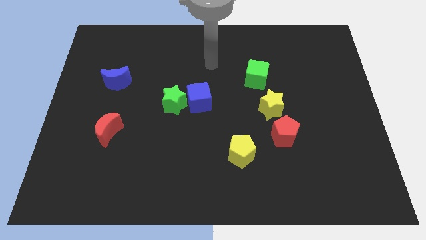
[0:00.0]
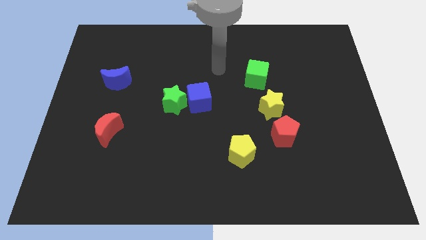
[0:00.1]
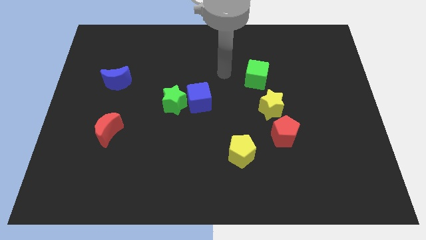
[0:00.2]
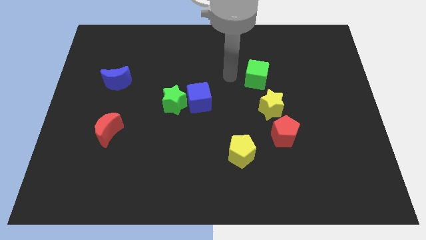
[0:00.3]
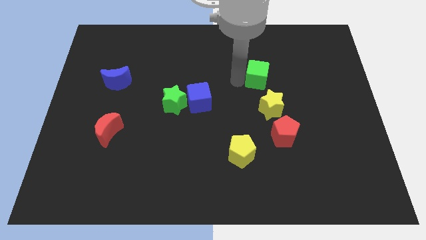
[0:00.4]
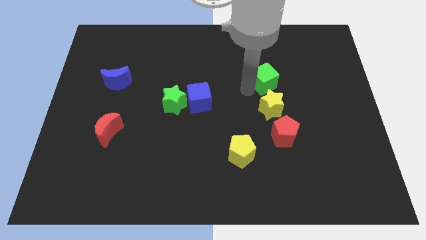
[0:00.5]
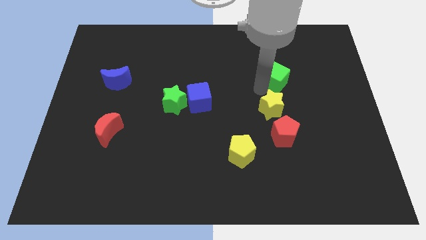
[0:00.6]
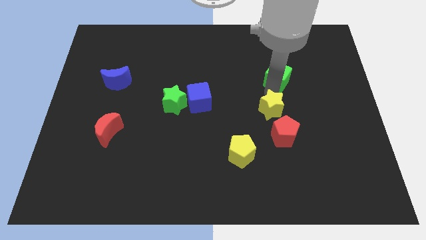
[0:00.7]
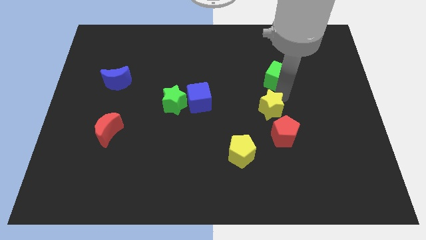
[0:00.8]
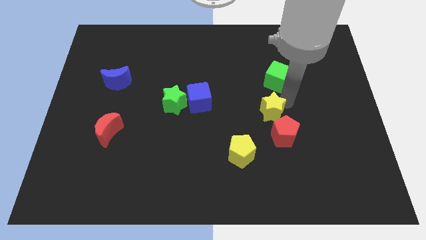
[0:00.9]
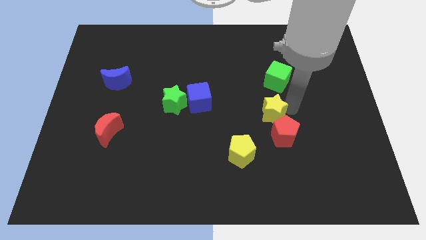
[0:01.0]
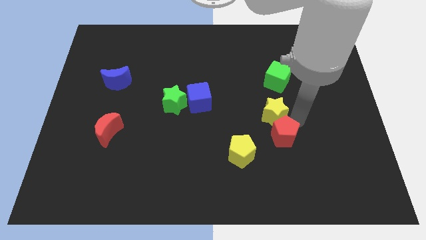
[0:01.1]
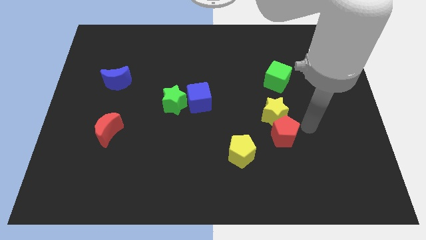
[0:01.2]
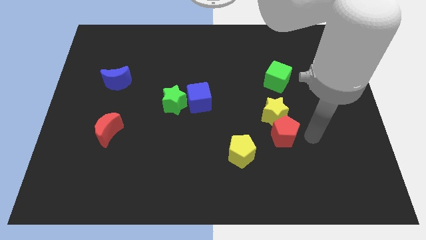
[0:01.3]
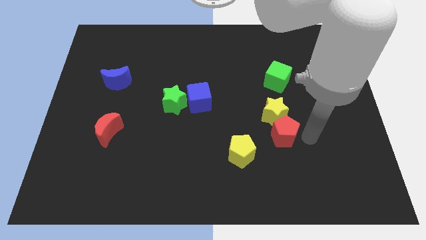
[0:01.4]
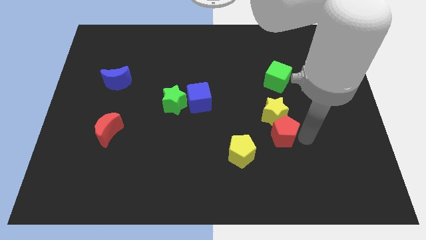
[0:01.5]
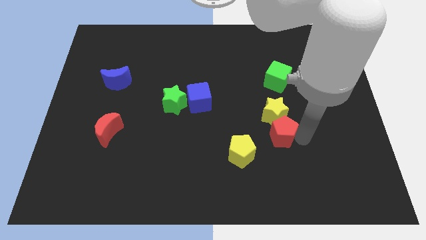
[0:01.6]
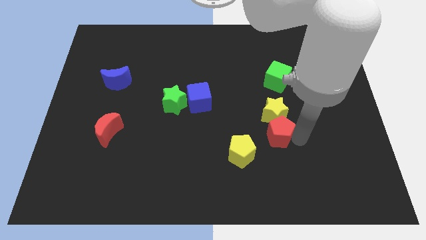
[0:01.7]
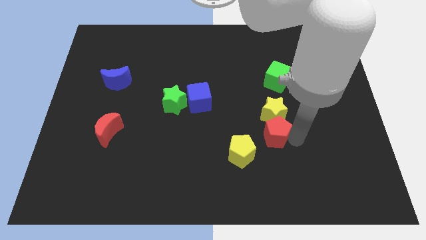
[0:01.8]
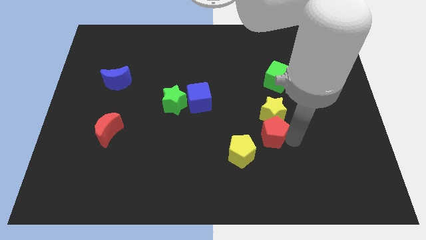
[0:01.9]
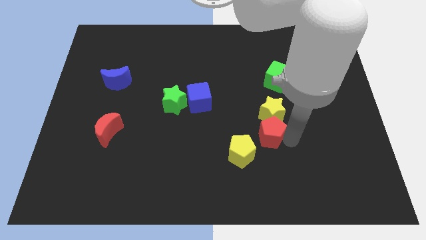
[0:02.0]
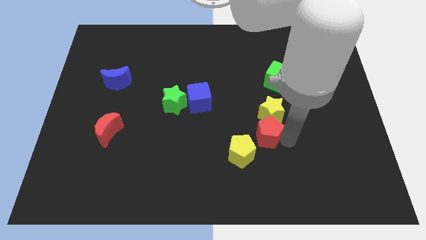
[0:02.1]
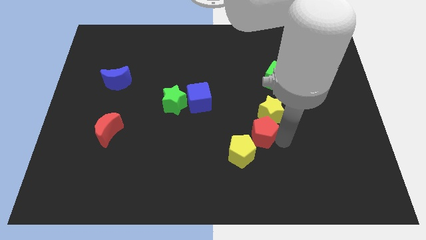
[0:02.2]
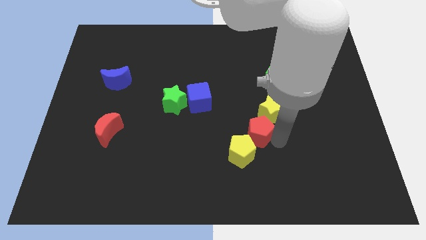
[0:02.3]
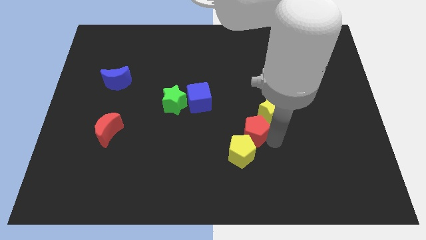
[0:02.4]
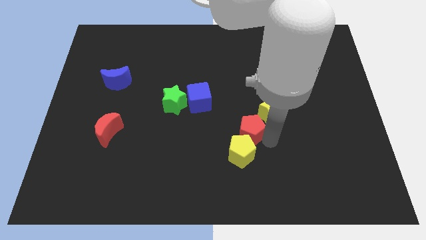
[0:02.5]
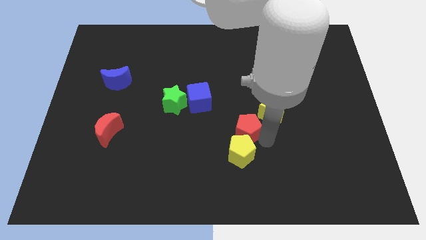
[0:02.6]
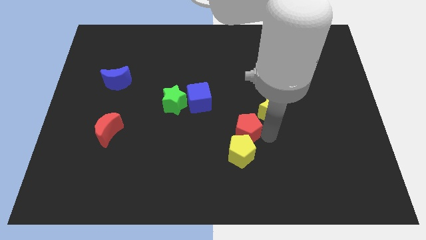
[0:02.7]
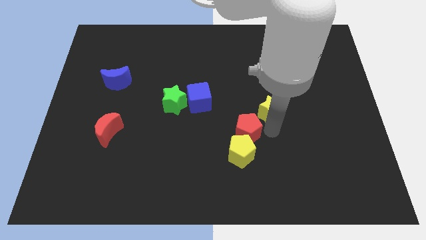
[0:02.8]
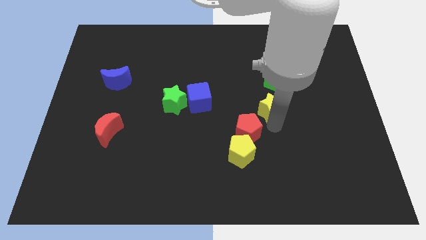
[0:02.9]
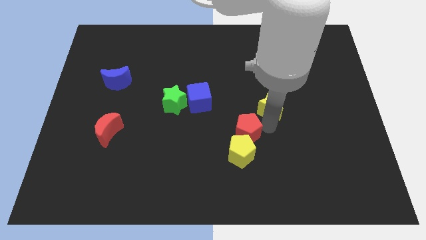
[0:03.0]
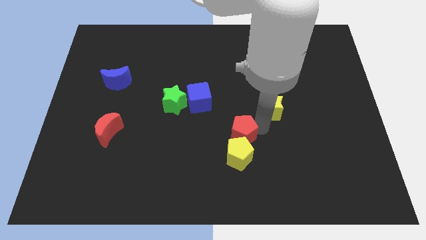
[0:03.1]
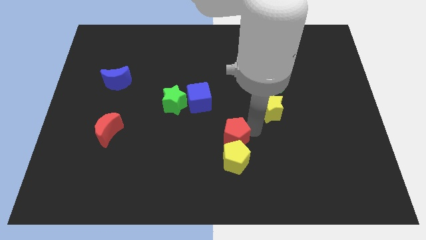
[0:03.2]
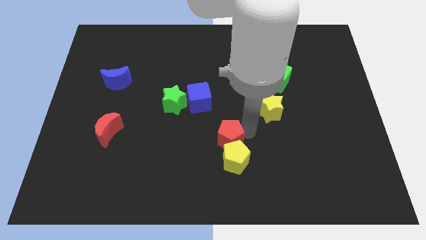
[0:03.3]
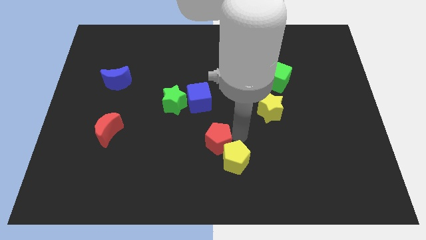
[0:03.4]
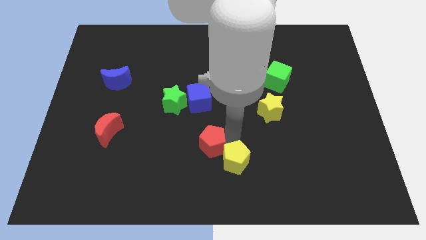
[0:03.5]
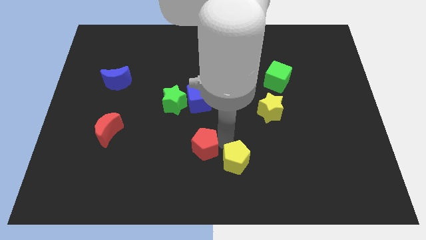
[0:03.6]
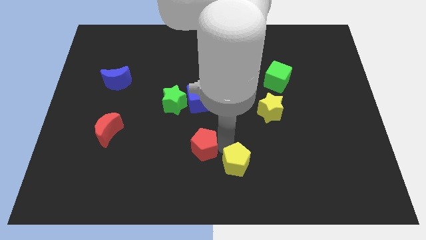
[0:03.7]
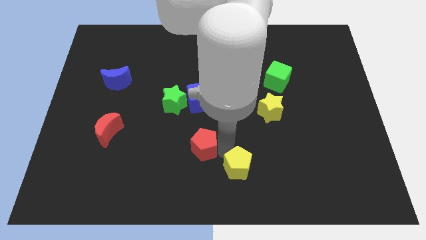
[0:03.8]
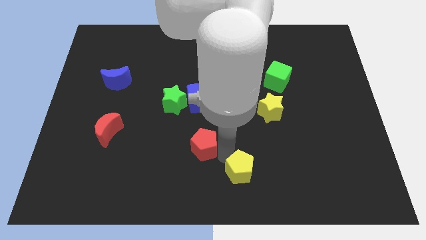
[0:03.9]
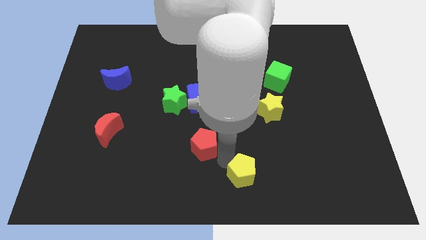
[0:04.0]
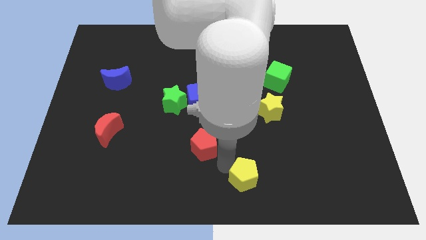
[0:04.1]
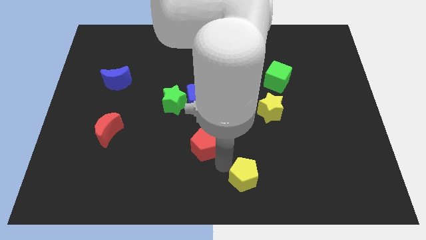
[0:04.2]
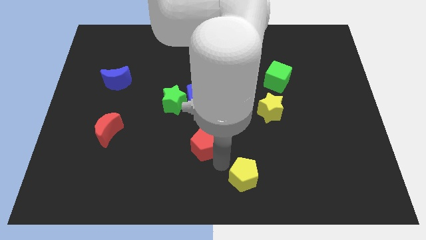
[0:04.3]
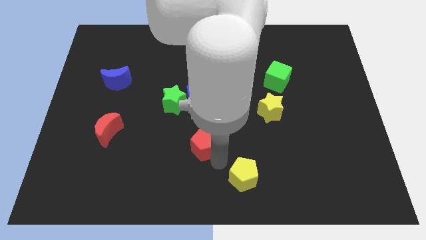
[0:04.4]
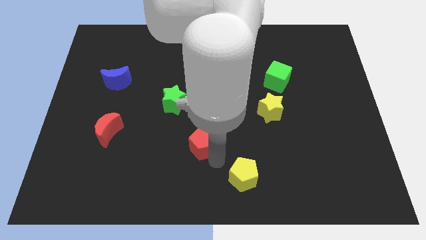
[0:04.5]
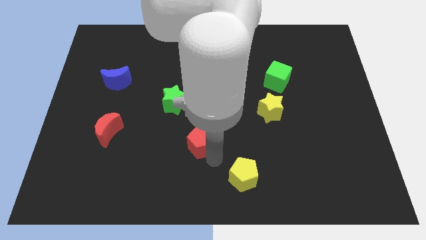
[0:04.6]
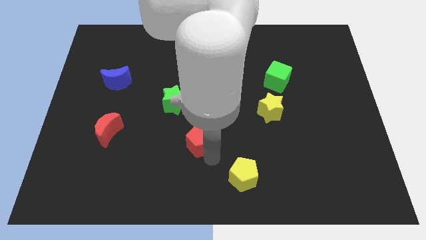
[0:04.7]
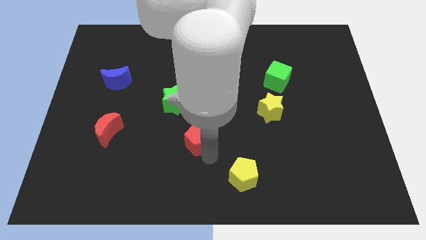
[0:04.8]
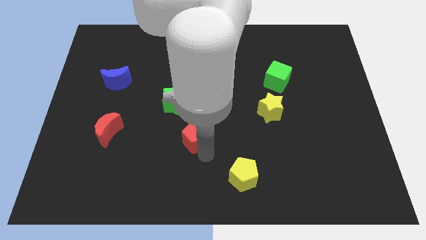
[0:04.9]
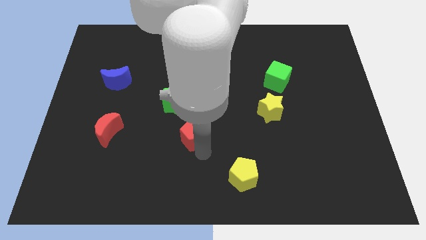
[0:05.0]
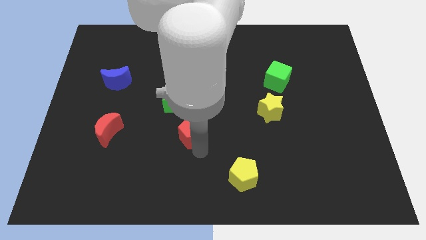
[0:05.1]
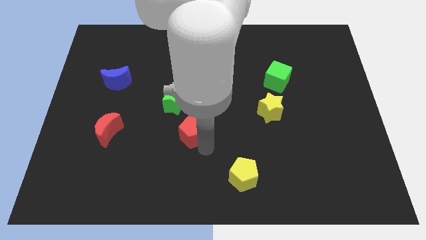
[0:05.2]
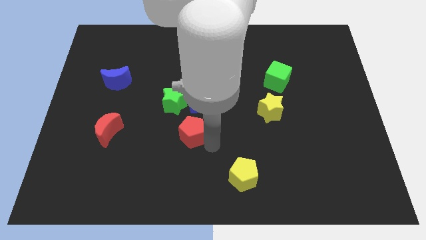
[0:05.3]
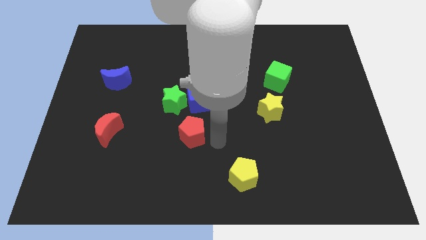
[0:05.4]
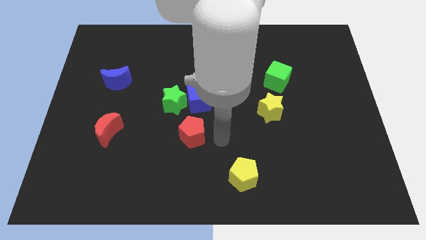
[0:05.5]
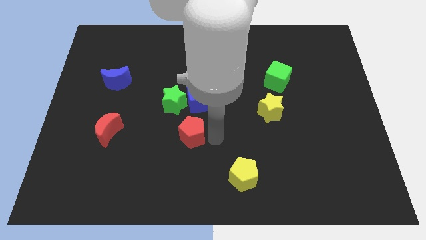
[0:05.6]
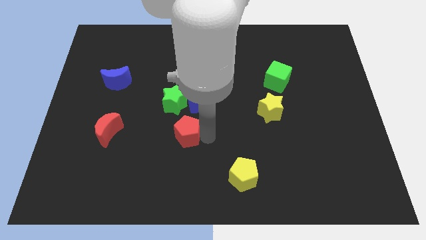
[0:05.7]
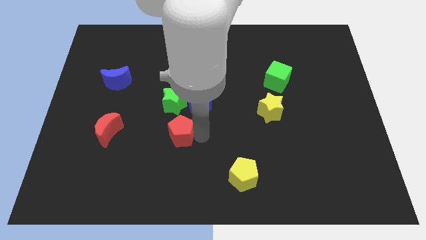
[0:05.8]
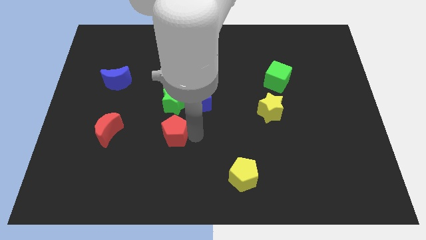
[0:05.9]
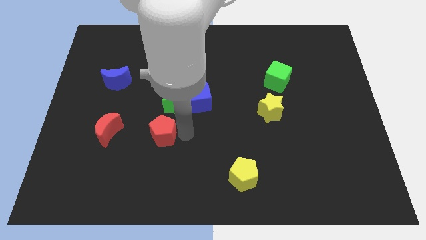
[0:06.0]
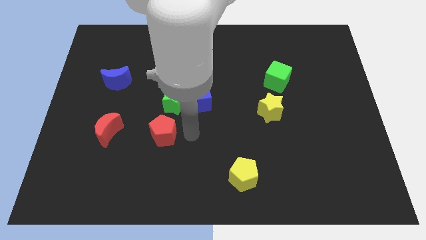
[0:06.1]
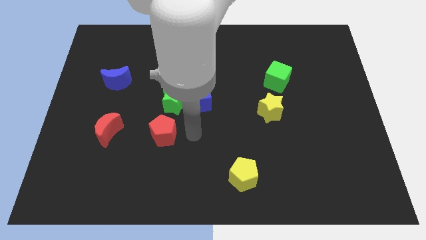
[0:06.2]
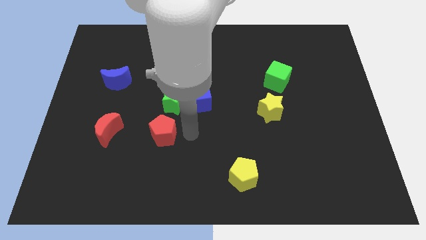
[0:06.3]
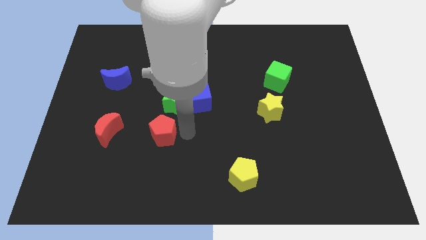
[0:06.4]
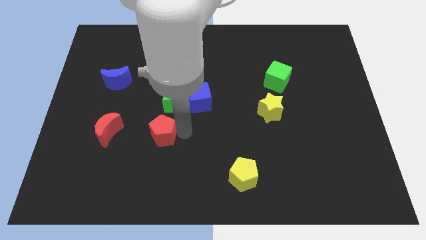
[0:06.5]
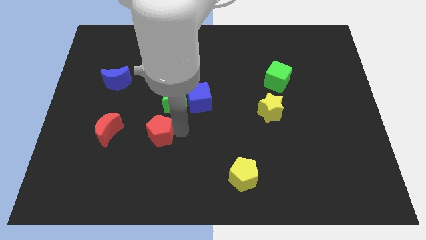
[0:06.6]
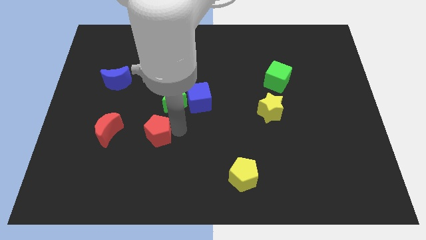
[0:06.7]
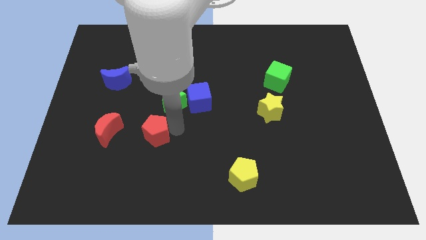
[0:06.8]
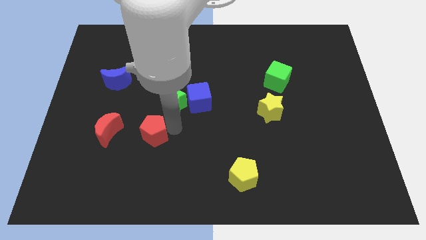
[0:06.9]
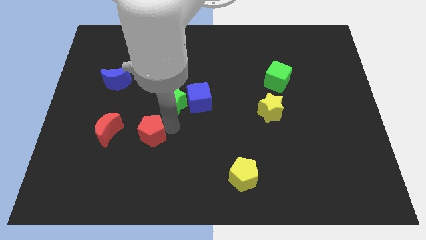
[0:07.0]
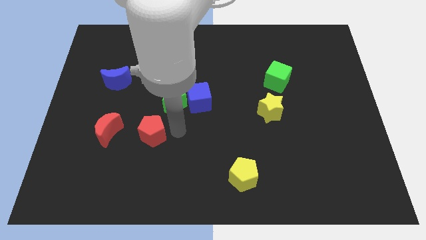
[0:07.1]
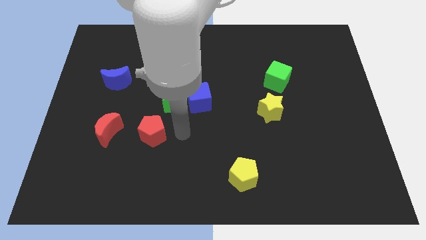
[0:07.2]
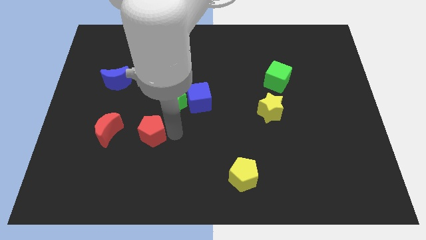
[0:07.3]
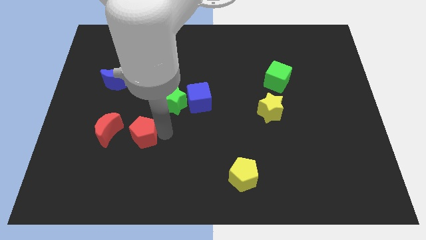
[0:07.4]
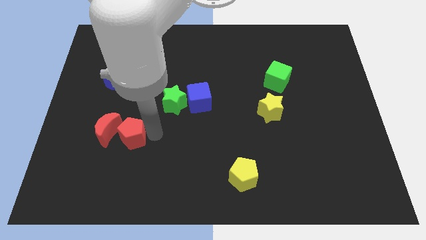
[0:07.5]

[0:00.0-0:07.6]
put the red pentagon to the red moon

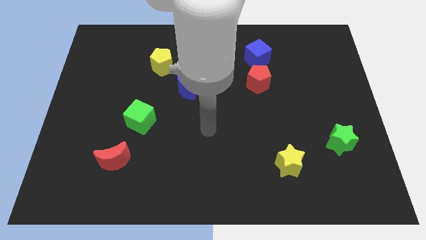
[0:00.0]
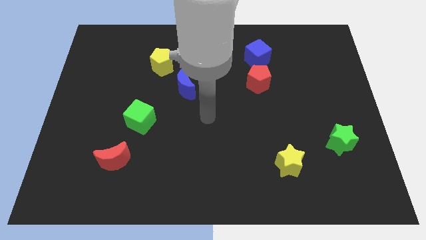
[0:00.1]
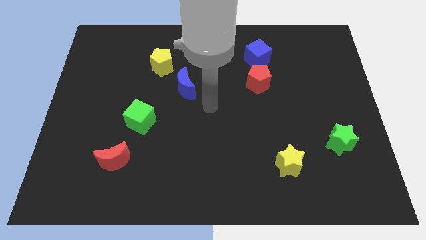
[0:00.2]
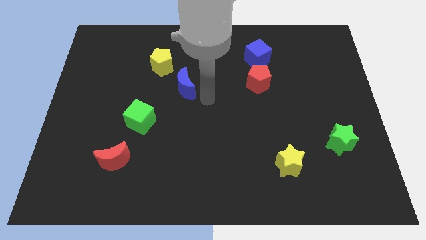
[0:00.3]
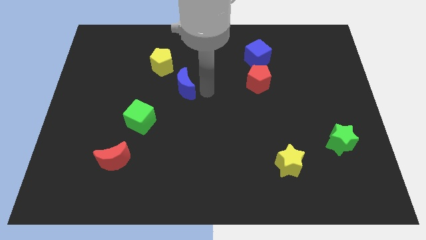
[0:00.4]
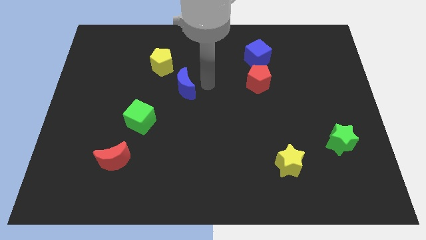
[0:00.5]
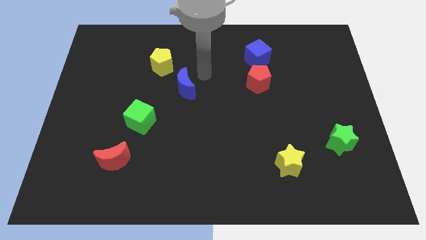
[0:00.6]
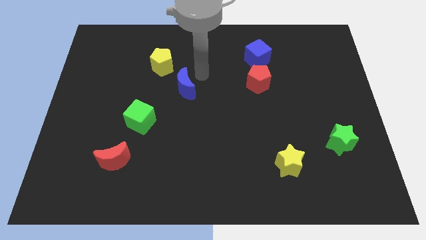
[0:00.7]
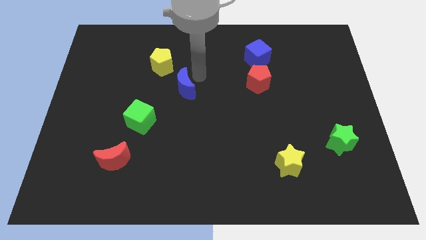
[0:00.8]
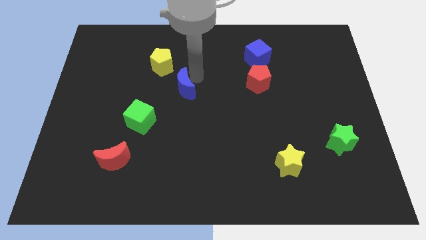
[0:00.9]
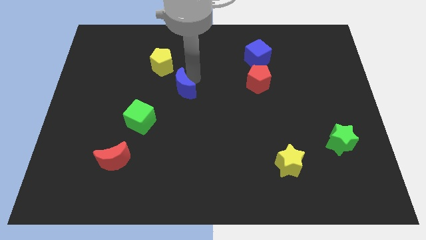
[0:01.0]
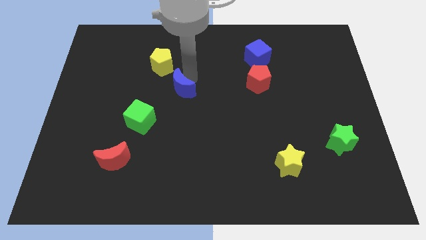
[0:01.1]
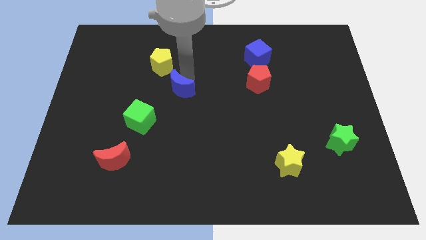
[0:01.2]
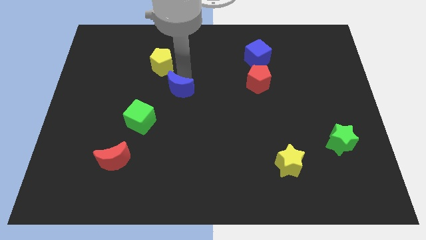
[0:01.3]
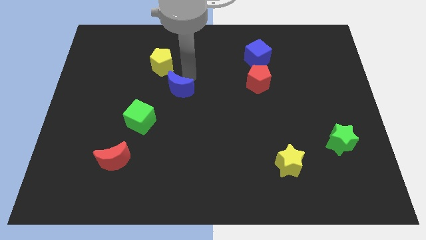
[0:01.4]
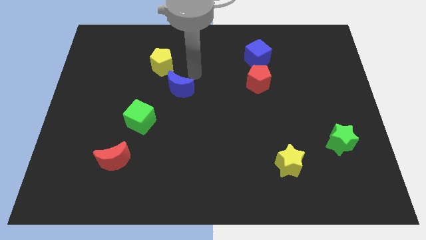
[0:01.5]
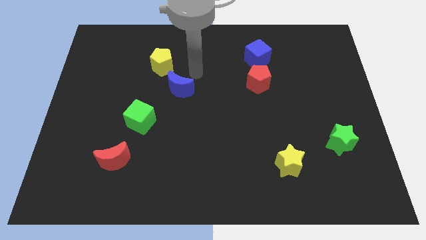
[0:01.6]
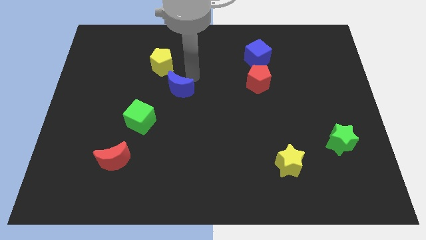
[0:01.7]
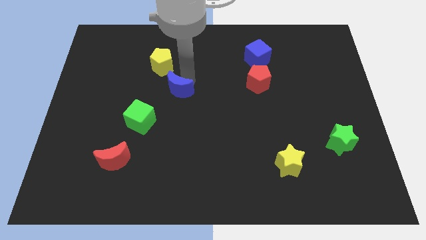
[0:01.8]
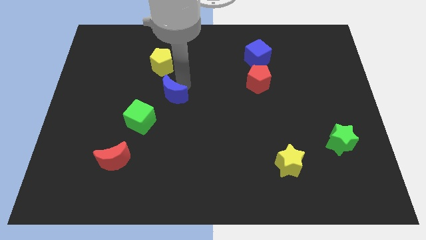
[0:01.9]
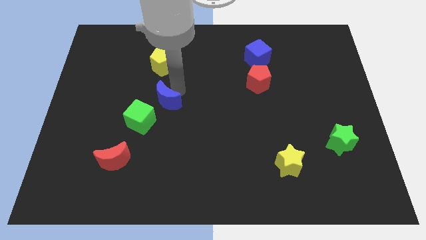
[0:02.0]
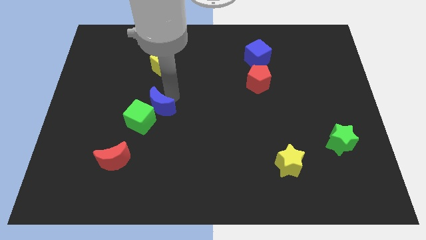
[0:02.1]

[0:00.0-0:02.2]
put the blue moon next to the green cube
